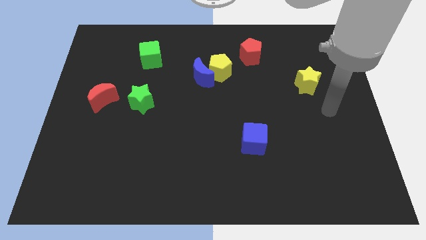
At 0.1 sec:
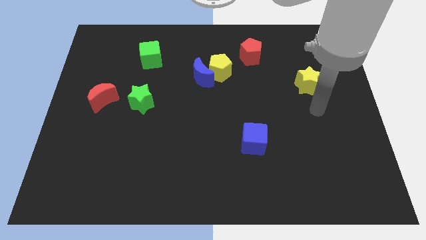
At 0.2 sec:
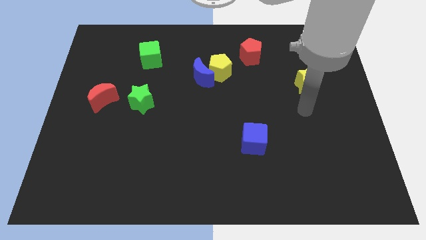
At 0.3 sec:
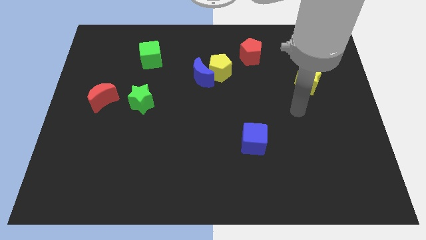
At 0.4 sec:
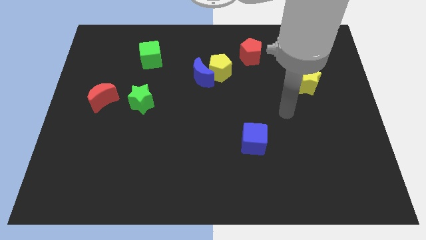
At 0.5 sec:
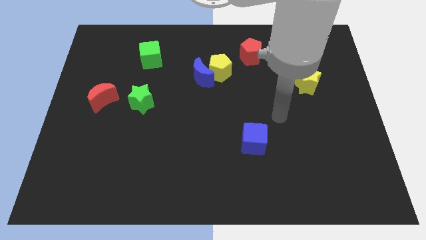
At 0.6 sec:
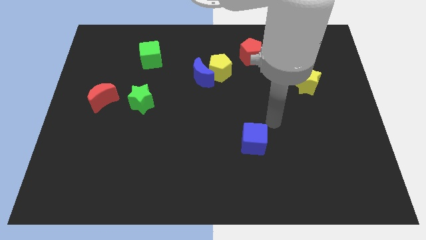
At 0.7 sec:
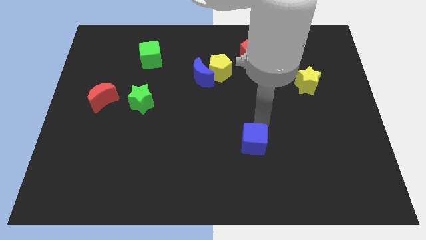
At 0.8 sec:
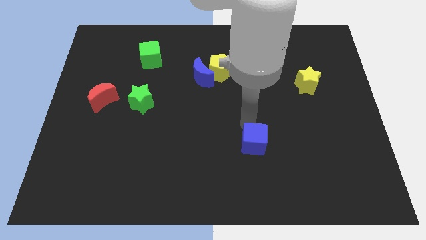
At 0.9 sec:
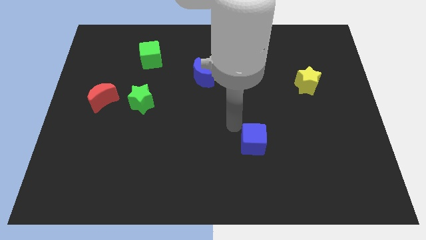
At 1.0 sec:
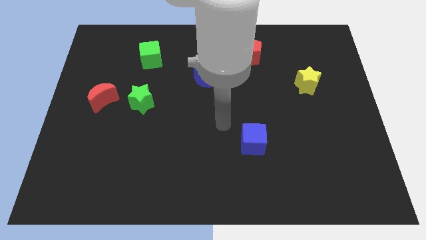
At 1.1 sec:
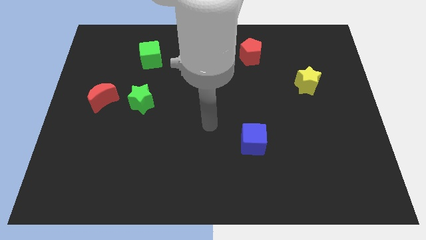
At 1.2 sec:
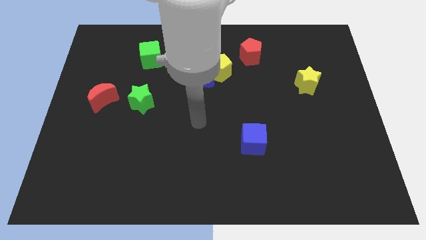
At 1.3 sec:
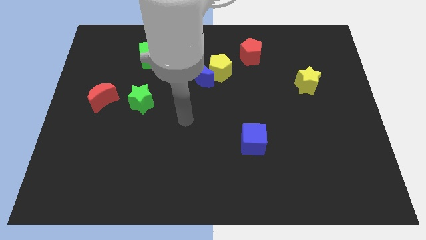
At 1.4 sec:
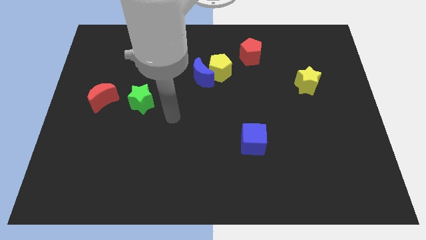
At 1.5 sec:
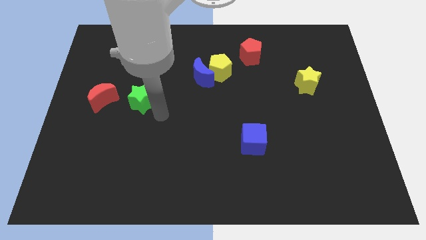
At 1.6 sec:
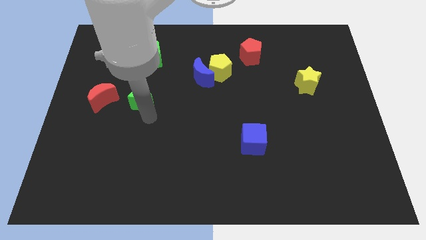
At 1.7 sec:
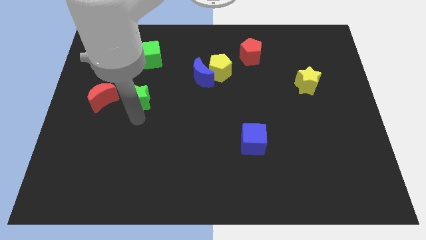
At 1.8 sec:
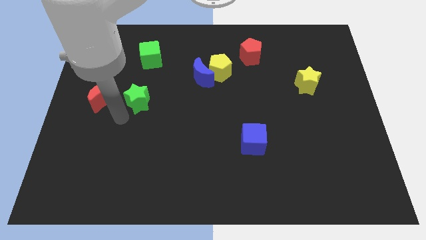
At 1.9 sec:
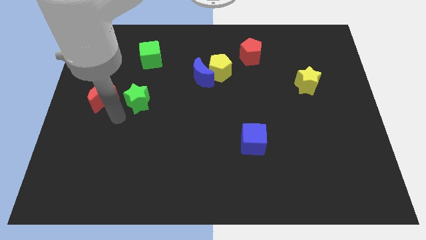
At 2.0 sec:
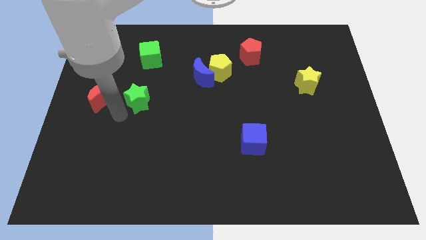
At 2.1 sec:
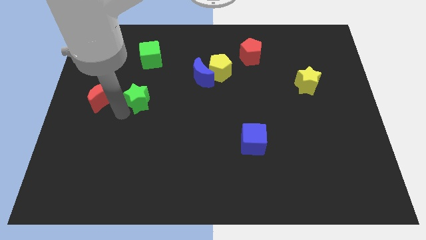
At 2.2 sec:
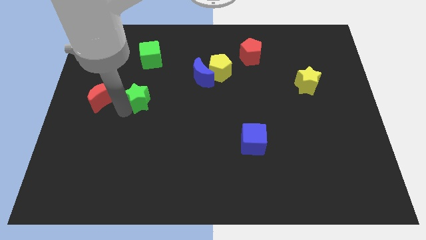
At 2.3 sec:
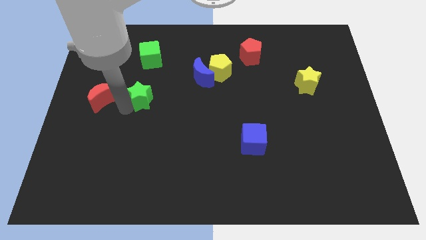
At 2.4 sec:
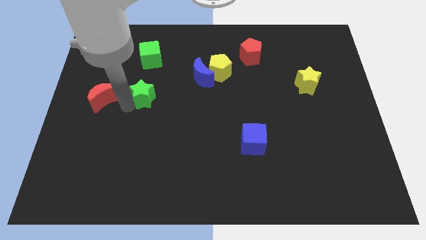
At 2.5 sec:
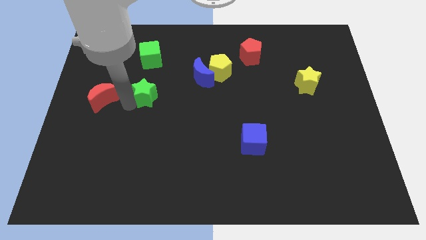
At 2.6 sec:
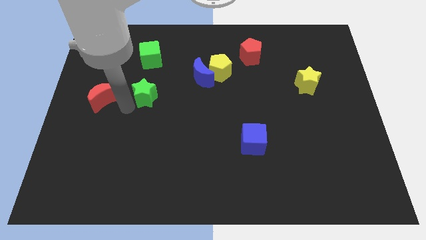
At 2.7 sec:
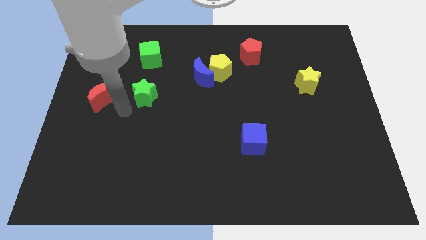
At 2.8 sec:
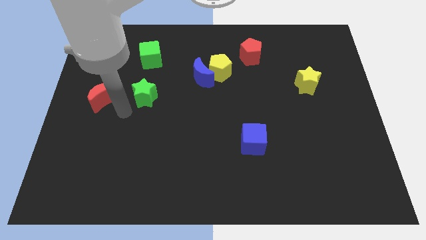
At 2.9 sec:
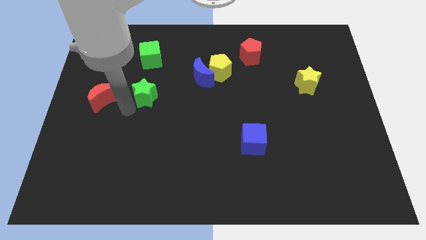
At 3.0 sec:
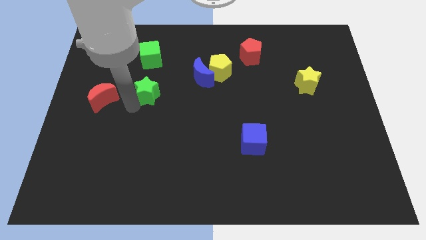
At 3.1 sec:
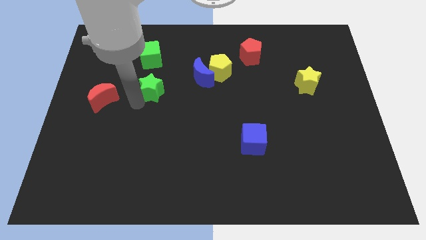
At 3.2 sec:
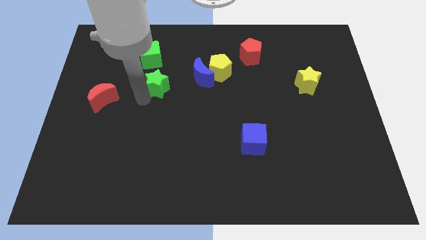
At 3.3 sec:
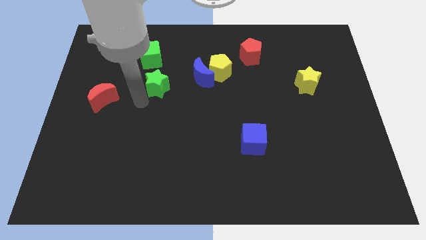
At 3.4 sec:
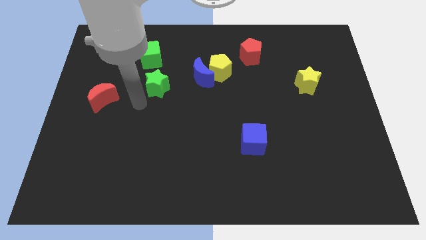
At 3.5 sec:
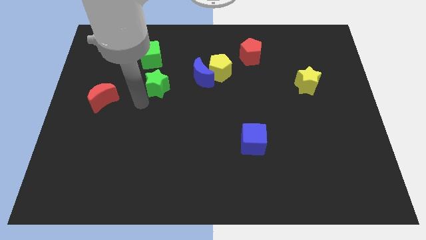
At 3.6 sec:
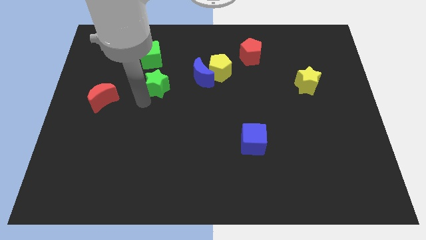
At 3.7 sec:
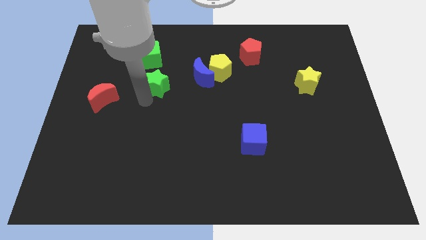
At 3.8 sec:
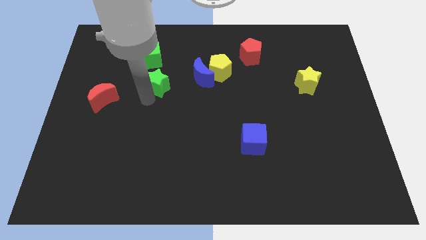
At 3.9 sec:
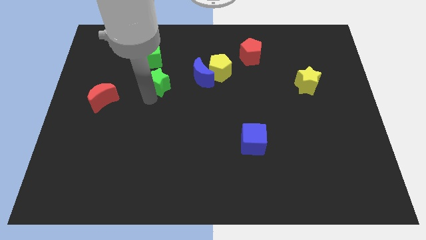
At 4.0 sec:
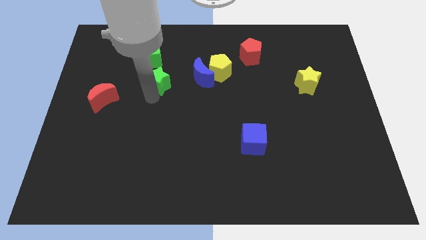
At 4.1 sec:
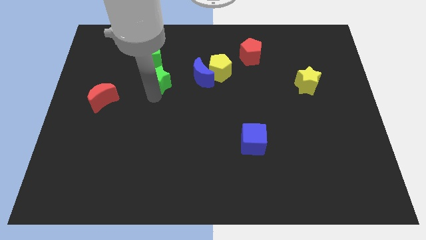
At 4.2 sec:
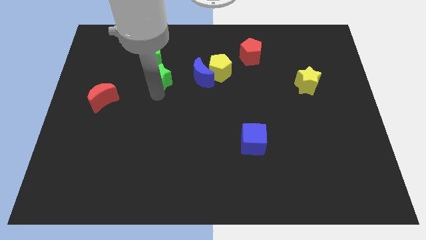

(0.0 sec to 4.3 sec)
move the green star slightly up and right diagonally

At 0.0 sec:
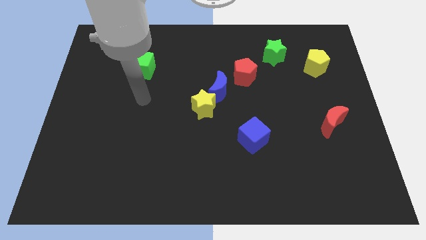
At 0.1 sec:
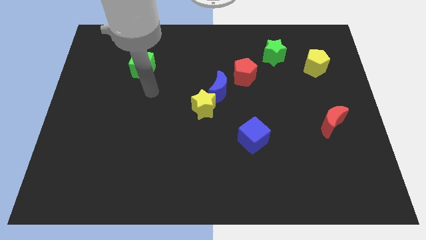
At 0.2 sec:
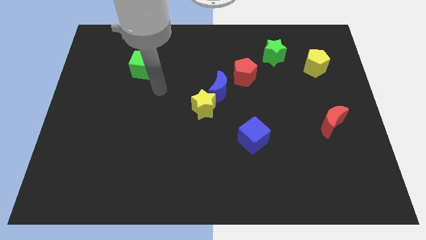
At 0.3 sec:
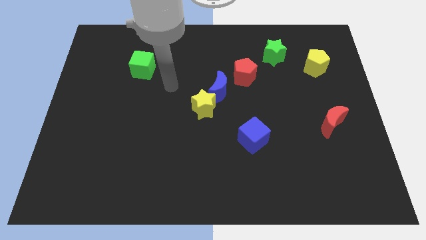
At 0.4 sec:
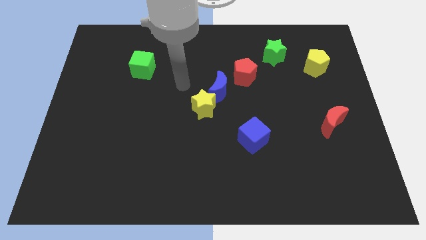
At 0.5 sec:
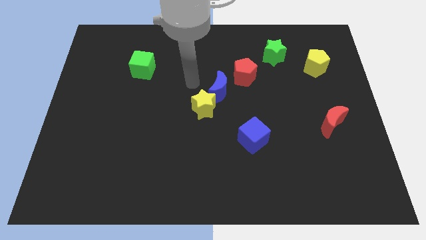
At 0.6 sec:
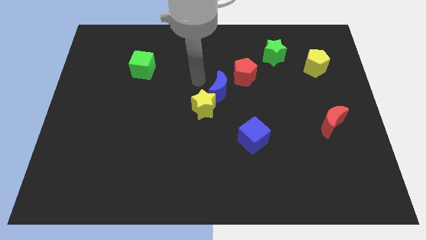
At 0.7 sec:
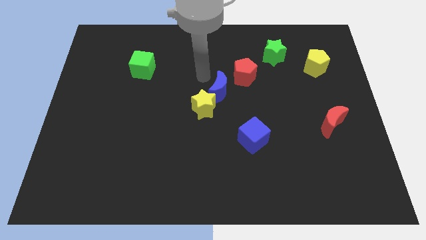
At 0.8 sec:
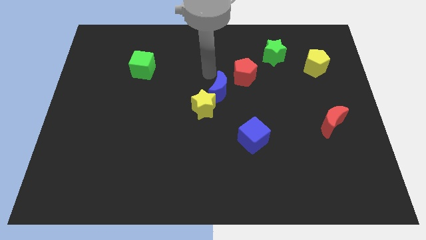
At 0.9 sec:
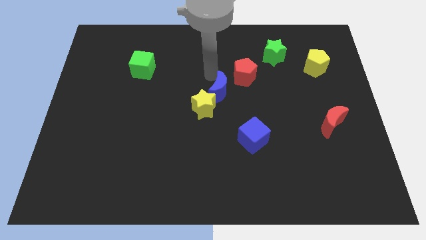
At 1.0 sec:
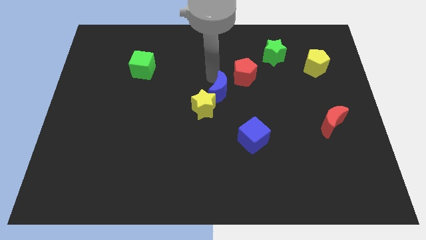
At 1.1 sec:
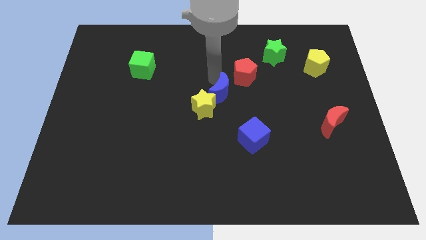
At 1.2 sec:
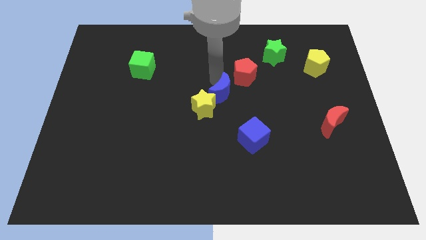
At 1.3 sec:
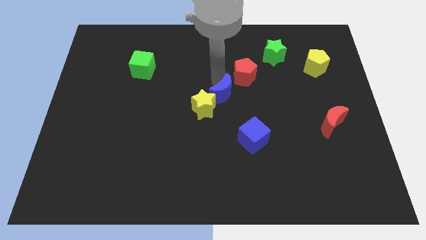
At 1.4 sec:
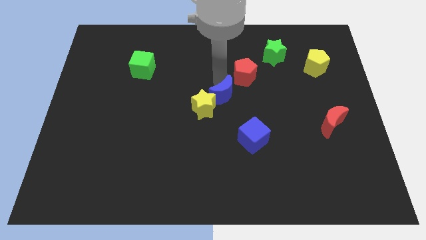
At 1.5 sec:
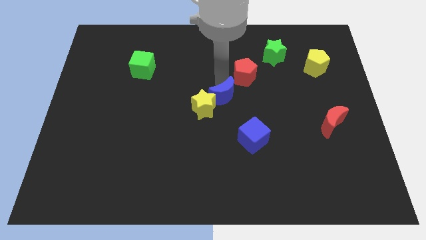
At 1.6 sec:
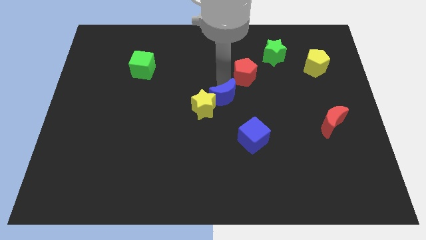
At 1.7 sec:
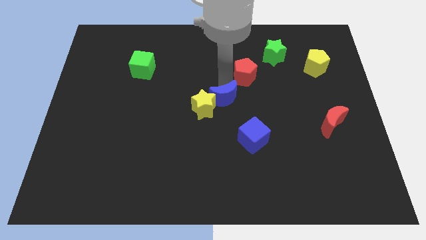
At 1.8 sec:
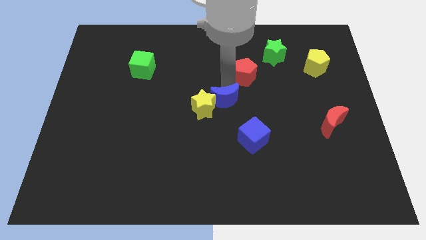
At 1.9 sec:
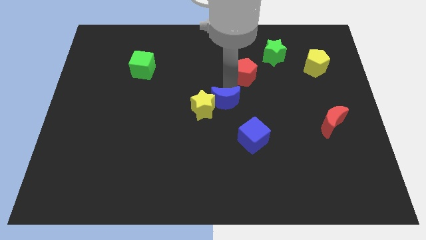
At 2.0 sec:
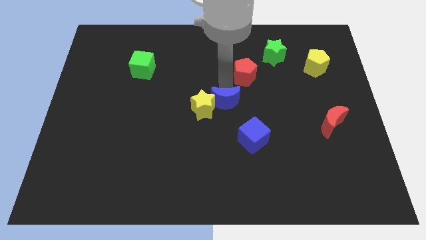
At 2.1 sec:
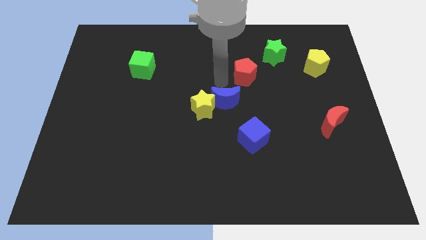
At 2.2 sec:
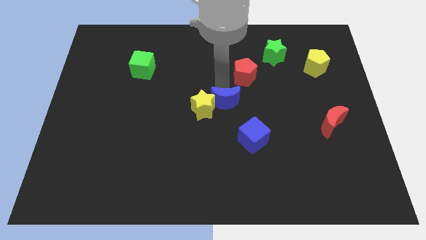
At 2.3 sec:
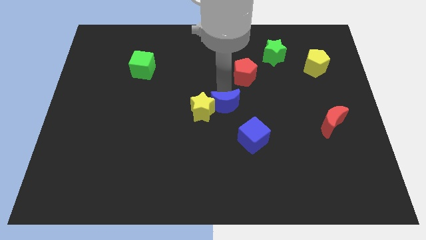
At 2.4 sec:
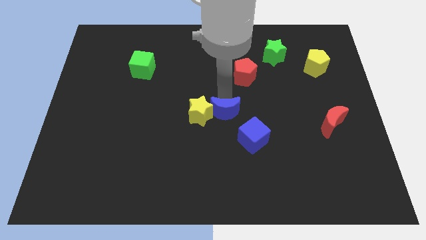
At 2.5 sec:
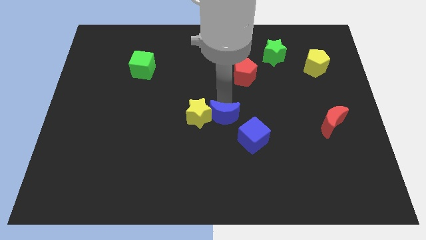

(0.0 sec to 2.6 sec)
move the blue moon down slightly

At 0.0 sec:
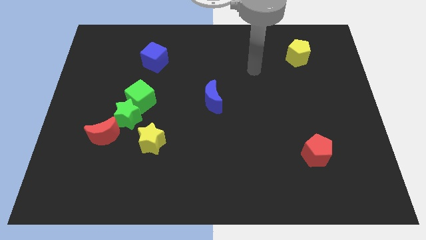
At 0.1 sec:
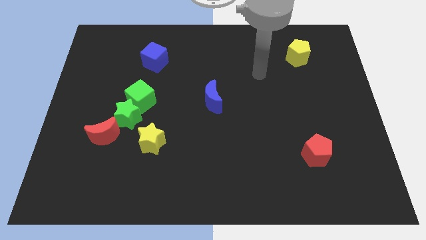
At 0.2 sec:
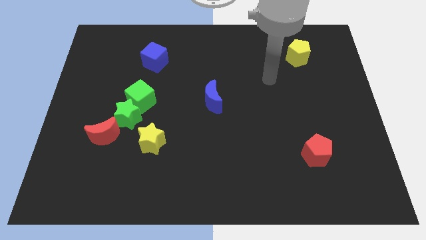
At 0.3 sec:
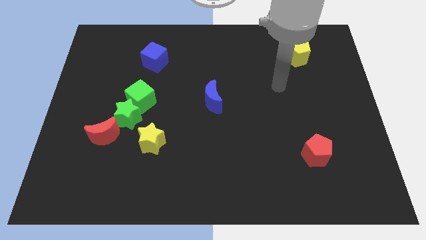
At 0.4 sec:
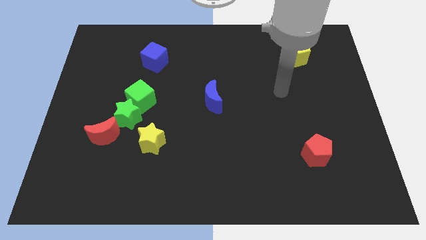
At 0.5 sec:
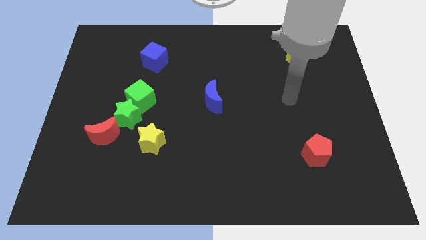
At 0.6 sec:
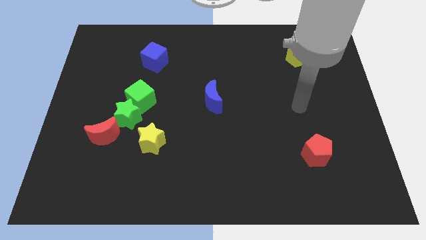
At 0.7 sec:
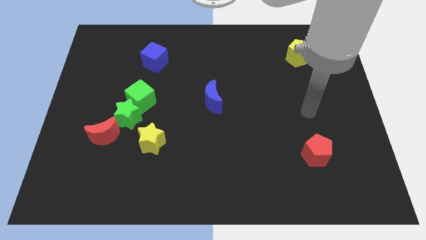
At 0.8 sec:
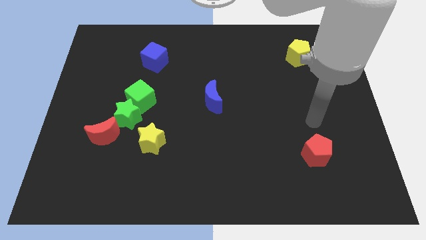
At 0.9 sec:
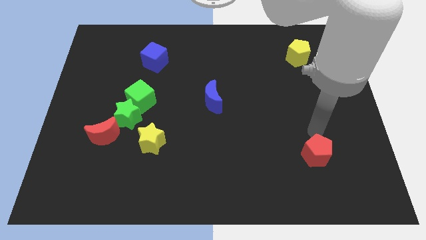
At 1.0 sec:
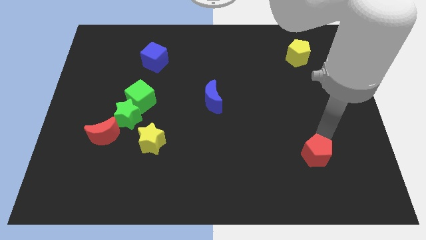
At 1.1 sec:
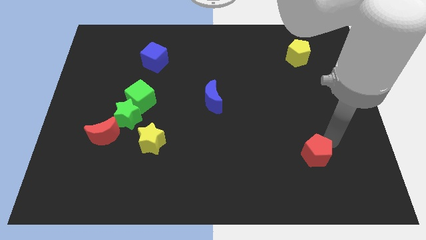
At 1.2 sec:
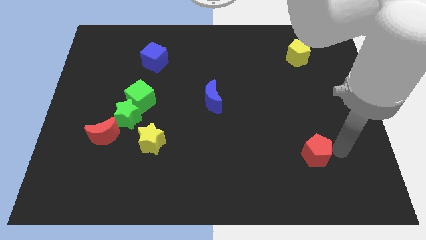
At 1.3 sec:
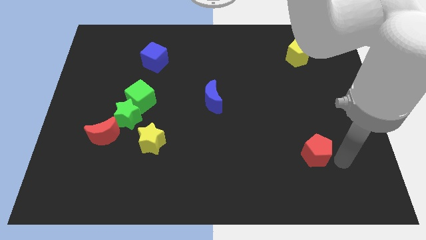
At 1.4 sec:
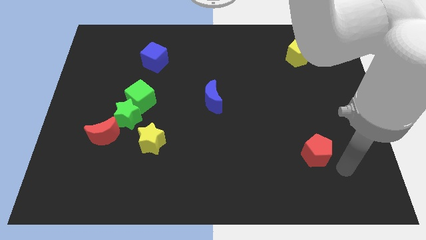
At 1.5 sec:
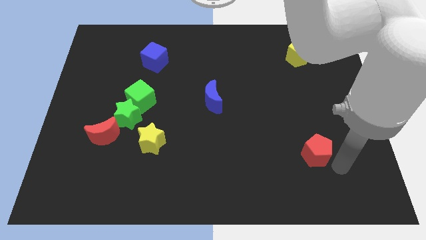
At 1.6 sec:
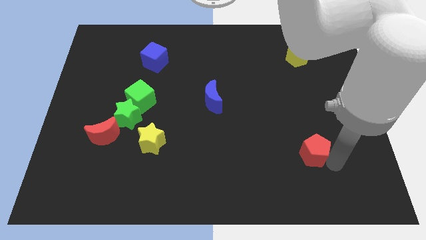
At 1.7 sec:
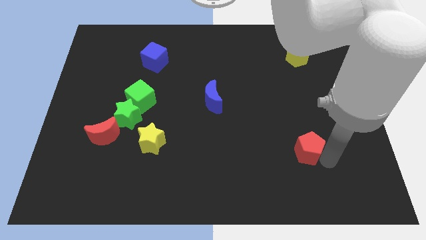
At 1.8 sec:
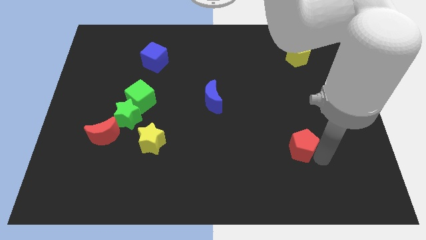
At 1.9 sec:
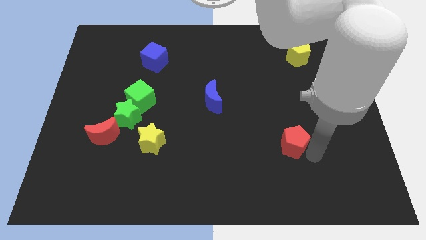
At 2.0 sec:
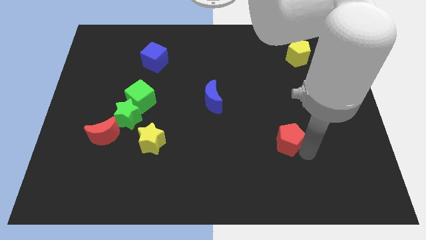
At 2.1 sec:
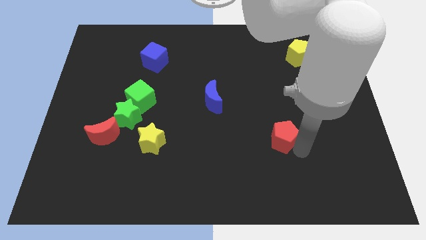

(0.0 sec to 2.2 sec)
slide the red pentagon a little bit diagonally up and to the left
